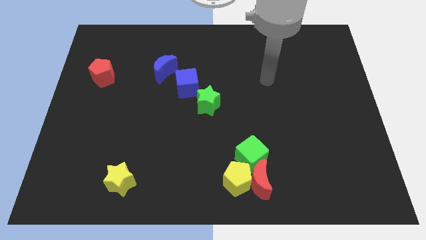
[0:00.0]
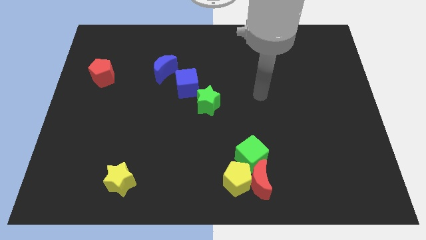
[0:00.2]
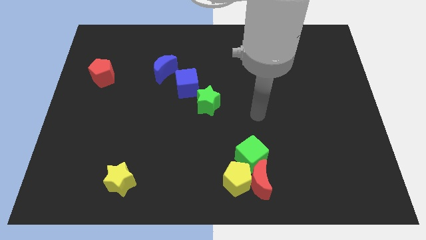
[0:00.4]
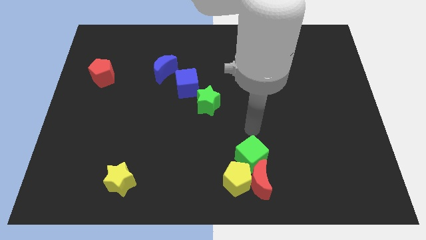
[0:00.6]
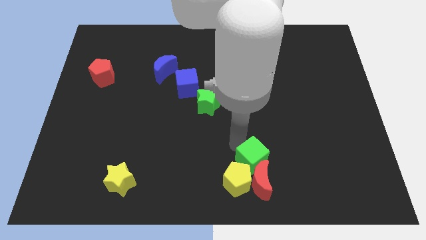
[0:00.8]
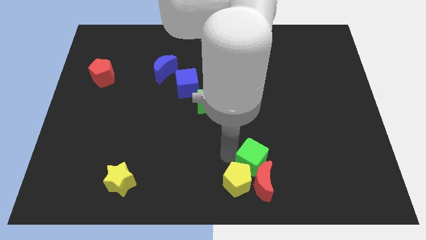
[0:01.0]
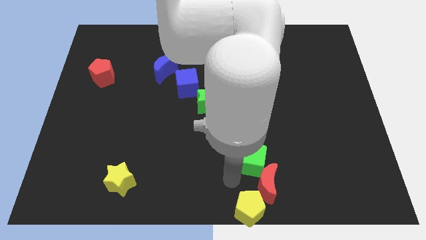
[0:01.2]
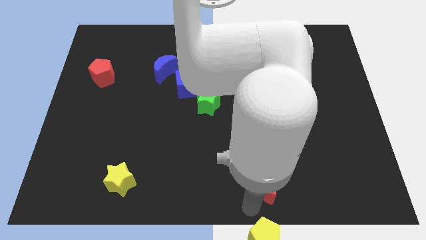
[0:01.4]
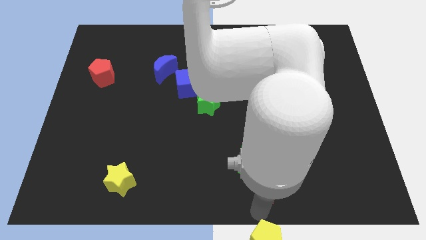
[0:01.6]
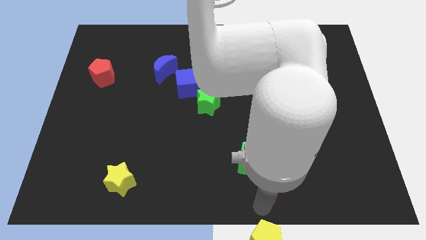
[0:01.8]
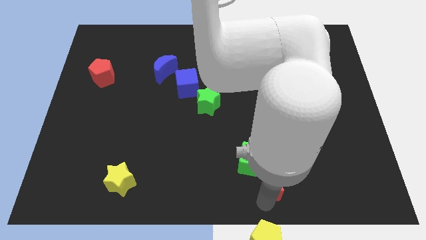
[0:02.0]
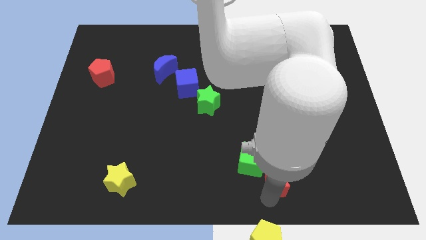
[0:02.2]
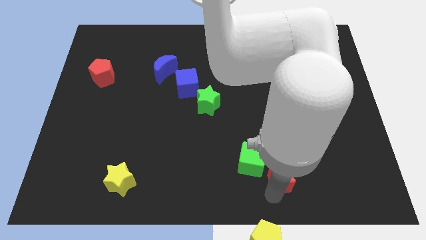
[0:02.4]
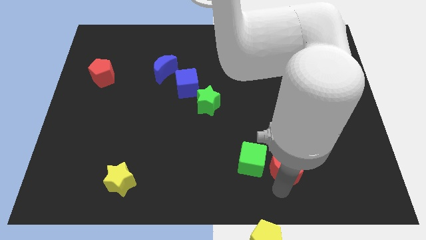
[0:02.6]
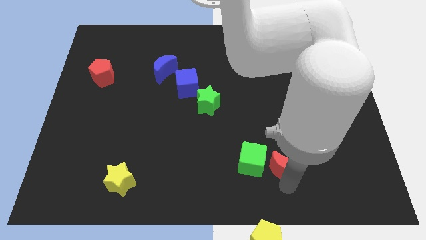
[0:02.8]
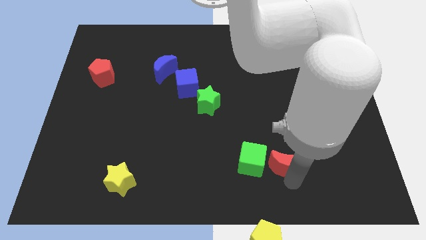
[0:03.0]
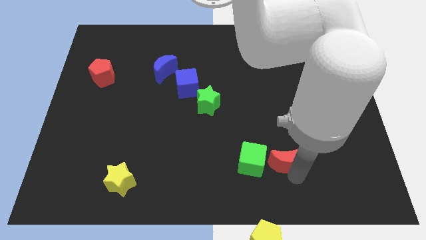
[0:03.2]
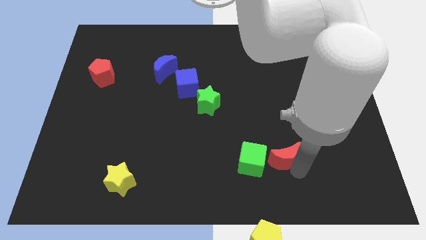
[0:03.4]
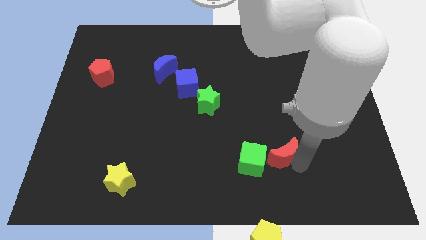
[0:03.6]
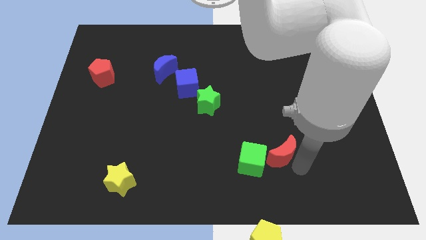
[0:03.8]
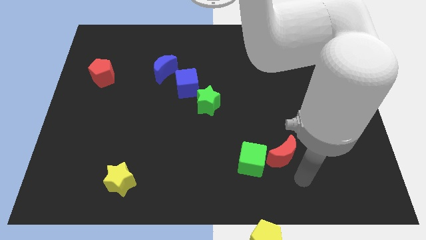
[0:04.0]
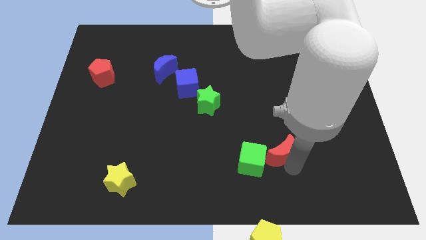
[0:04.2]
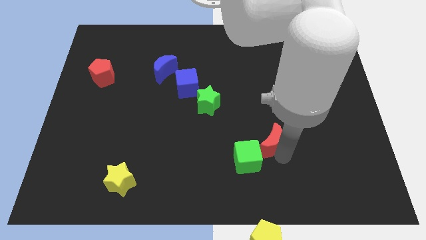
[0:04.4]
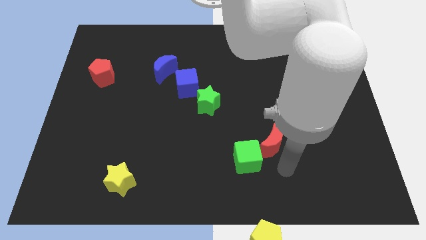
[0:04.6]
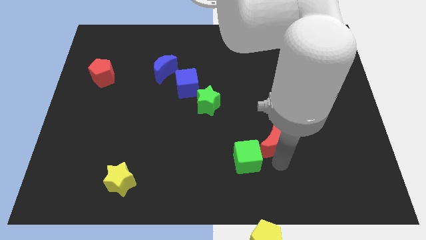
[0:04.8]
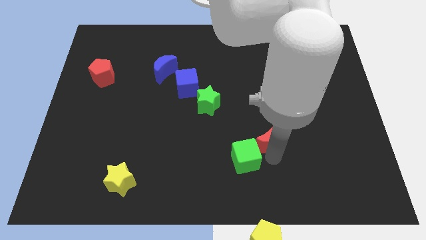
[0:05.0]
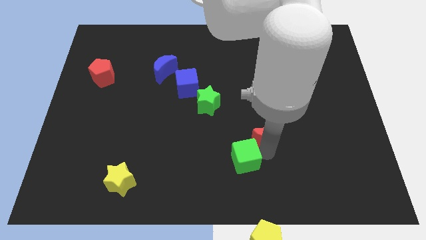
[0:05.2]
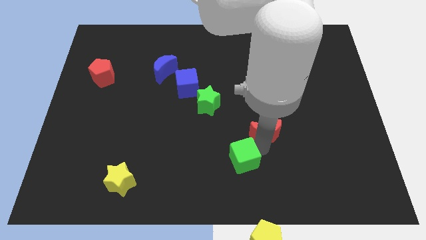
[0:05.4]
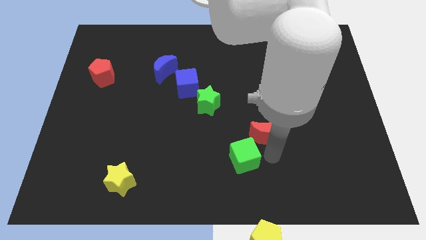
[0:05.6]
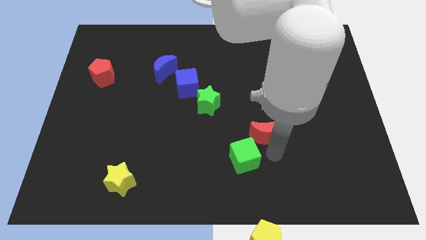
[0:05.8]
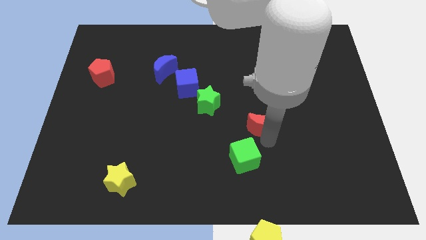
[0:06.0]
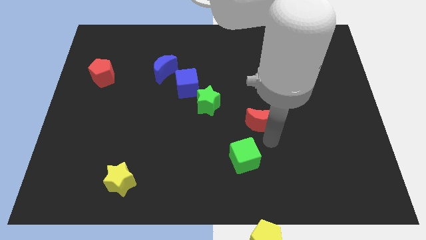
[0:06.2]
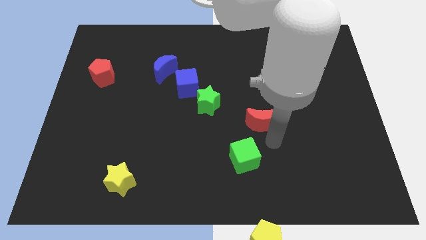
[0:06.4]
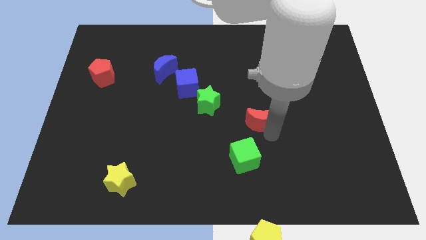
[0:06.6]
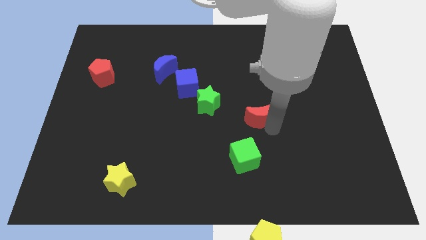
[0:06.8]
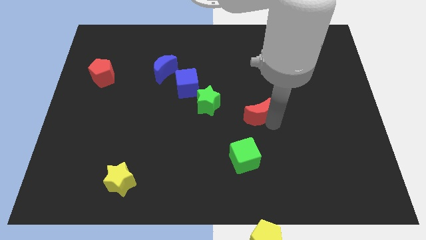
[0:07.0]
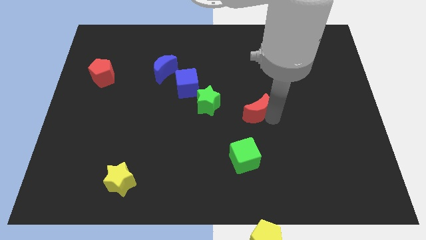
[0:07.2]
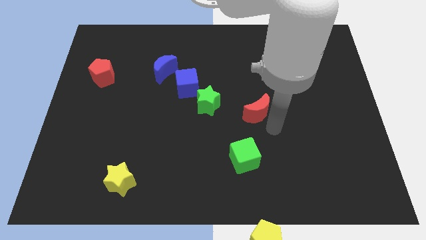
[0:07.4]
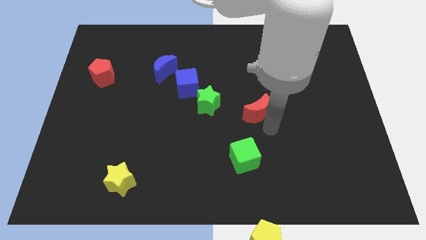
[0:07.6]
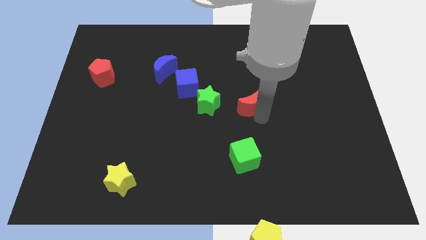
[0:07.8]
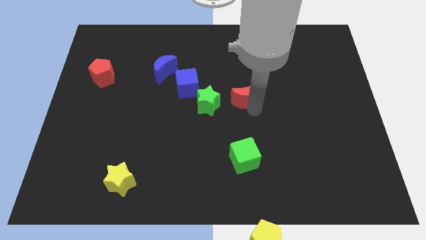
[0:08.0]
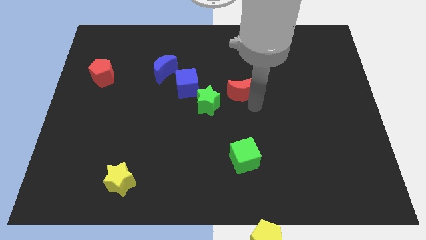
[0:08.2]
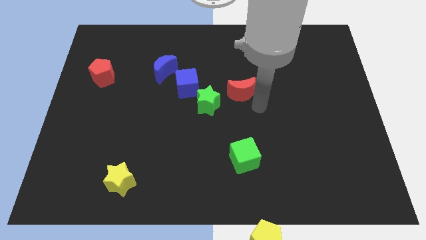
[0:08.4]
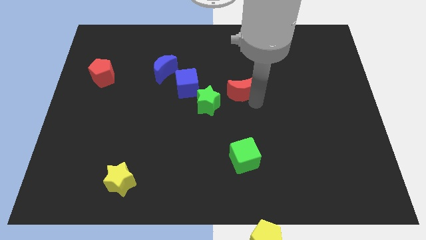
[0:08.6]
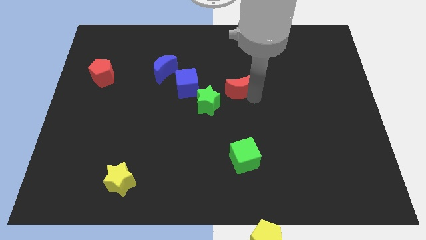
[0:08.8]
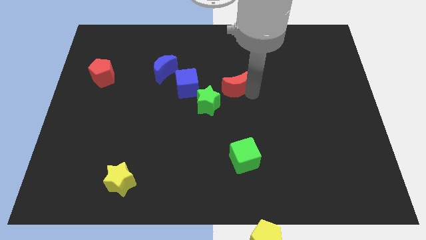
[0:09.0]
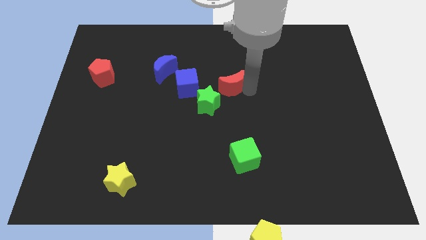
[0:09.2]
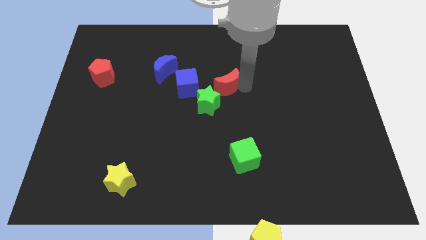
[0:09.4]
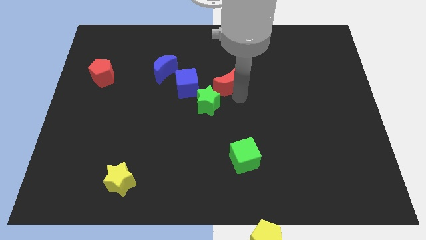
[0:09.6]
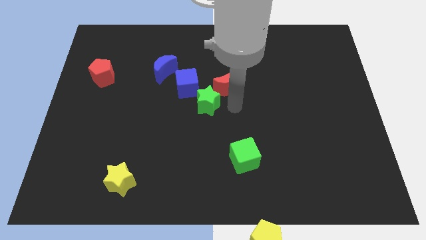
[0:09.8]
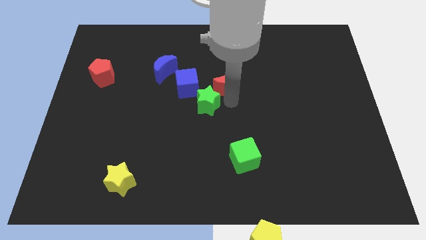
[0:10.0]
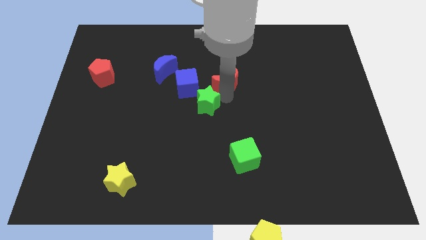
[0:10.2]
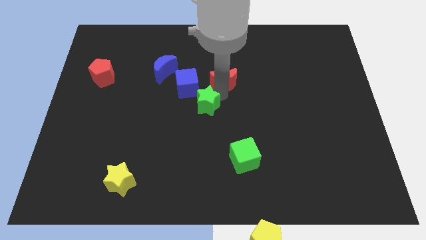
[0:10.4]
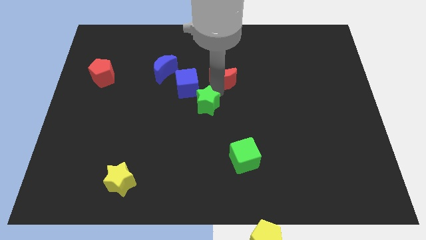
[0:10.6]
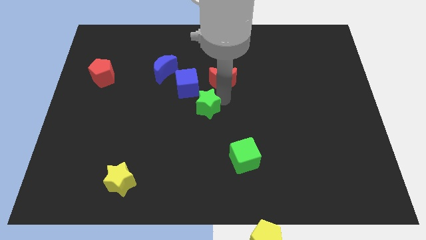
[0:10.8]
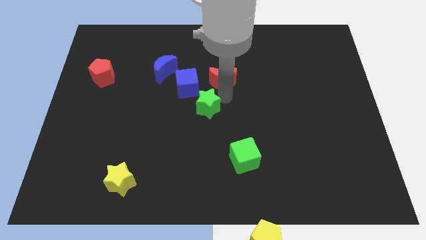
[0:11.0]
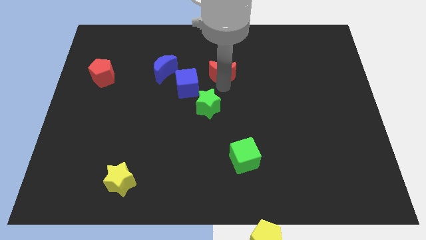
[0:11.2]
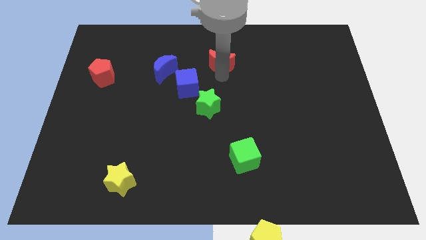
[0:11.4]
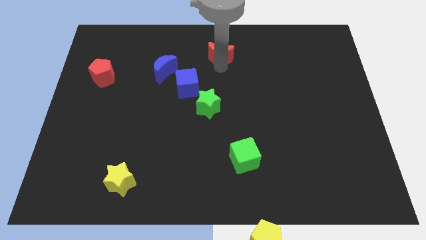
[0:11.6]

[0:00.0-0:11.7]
move the red moon to the top
